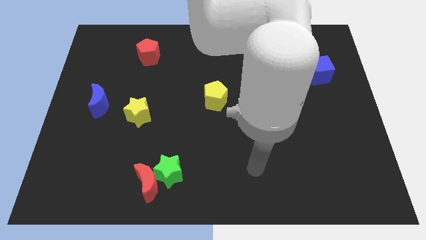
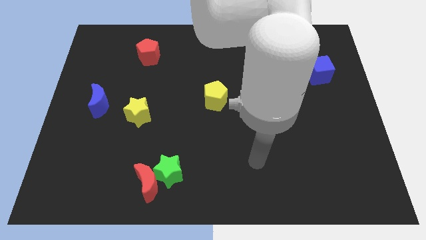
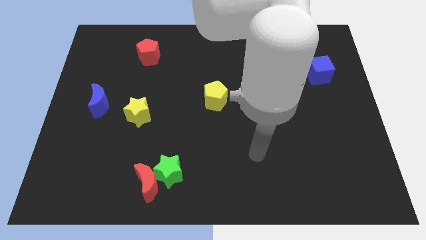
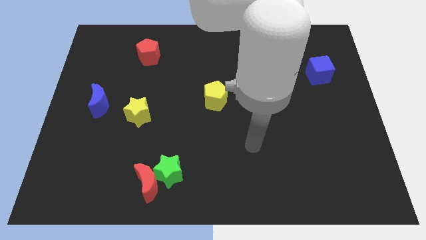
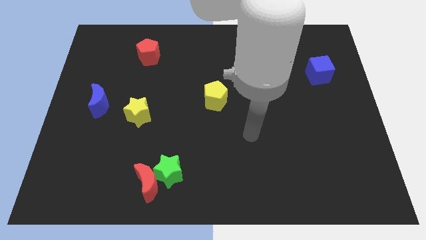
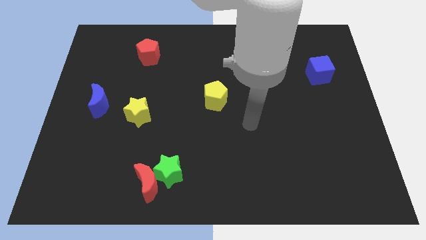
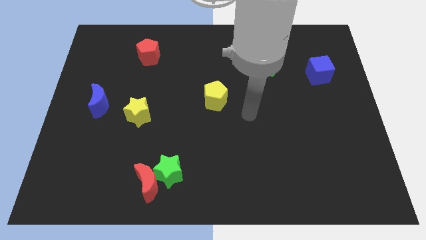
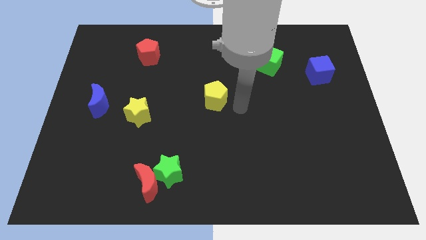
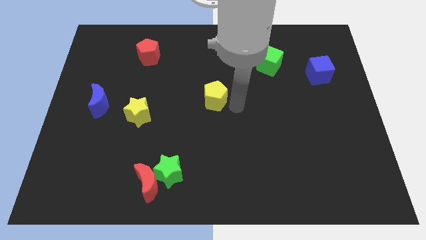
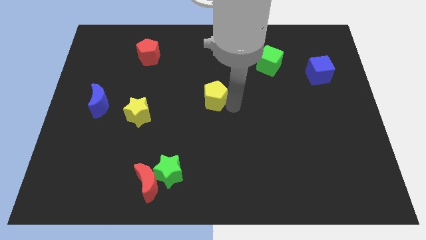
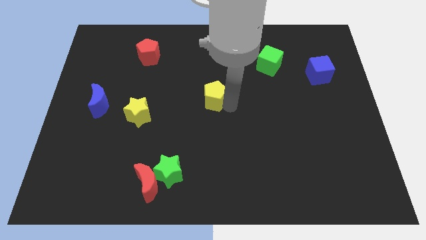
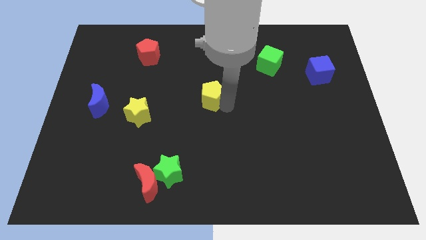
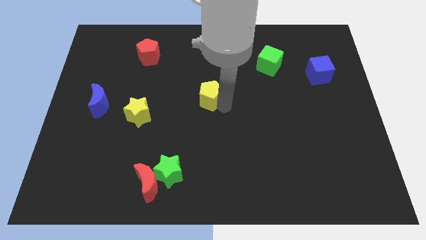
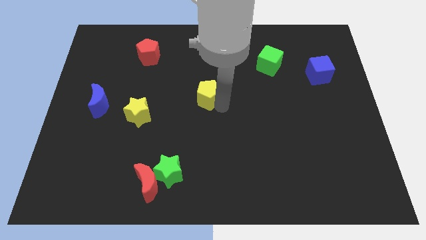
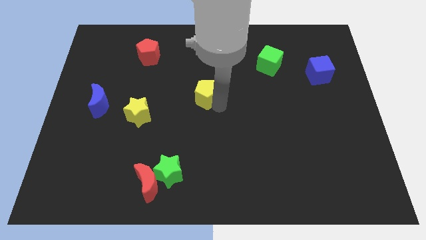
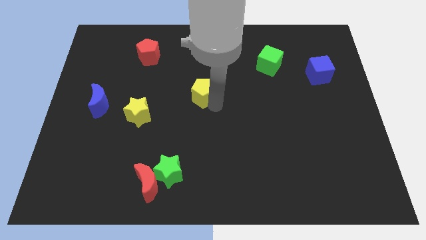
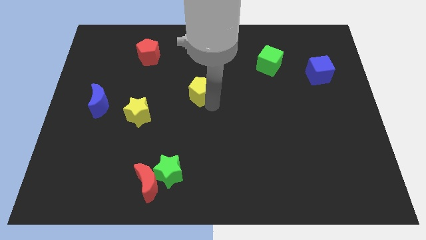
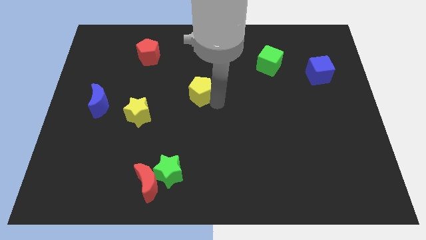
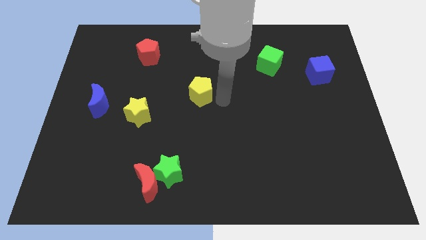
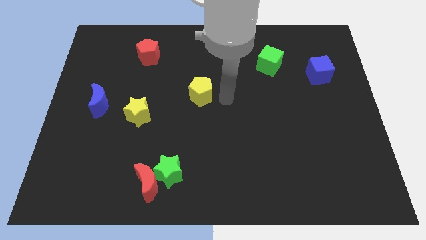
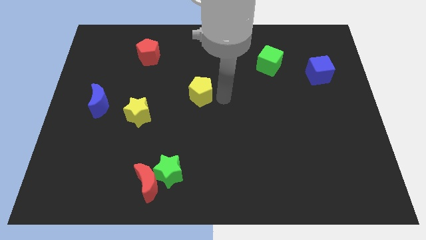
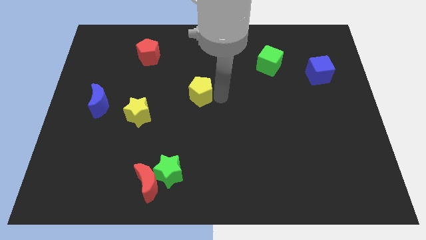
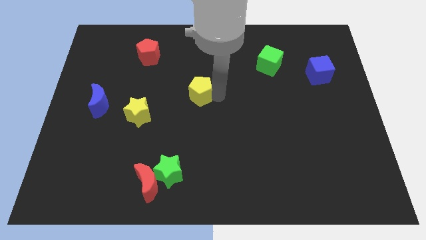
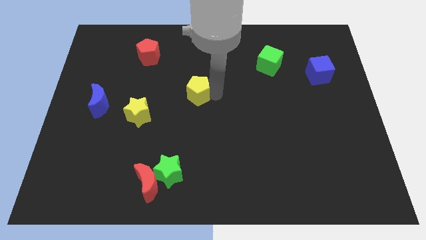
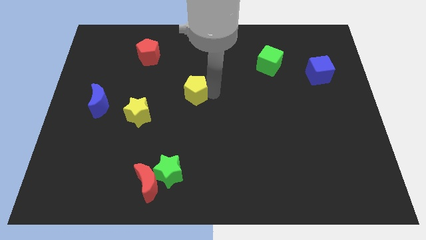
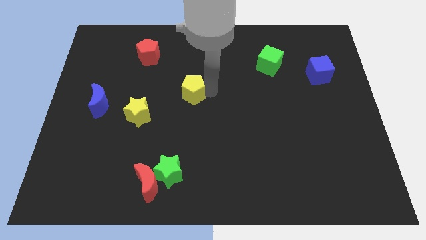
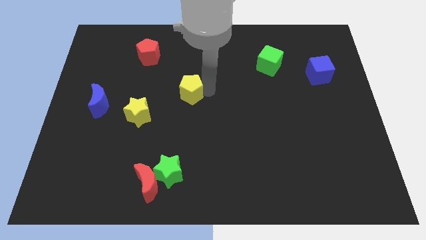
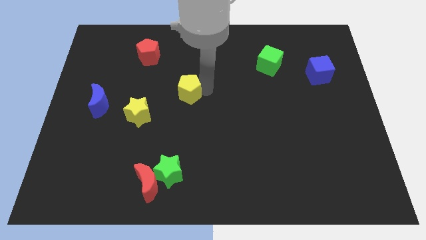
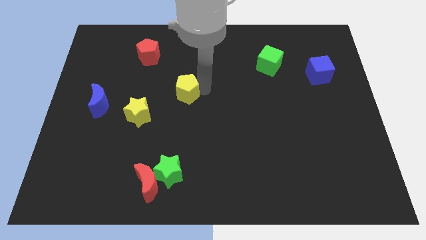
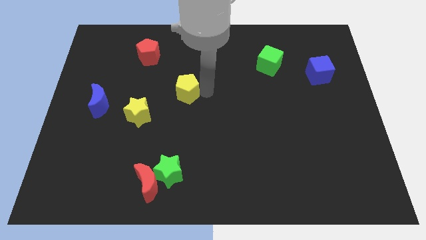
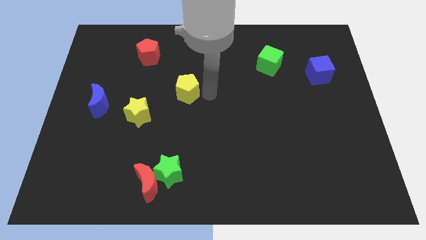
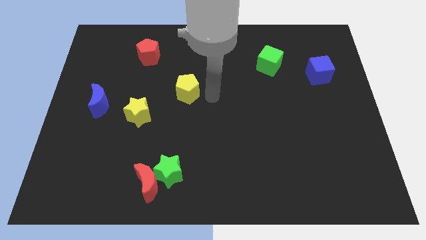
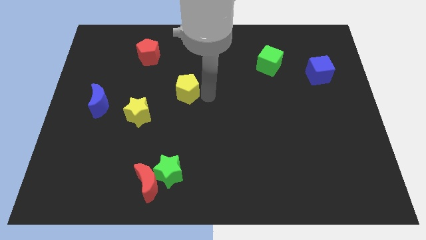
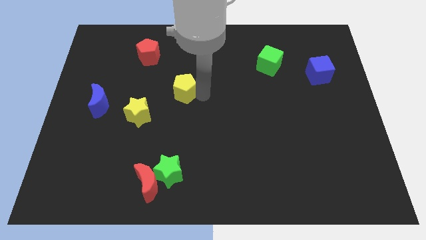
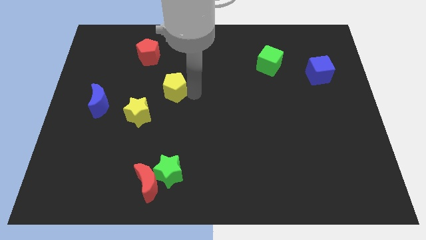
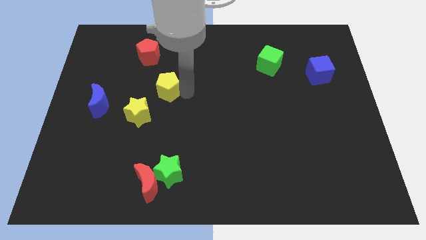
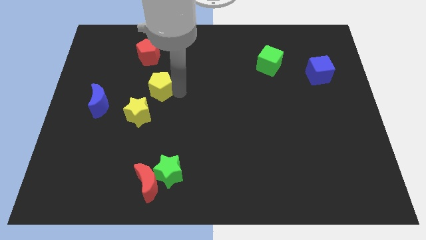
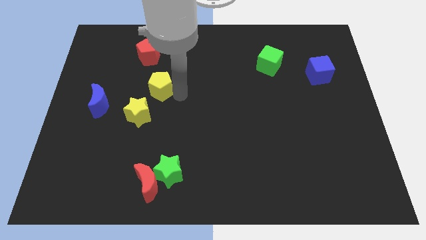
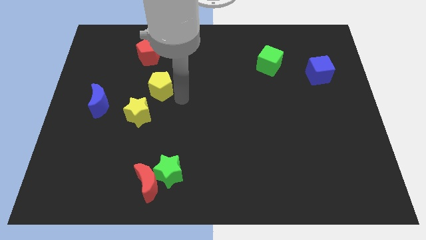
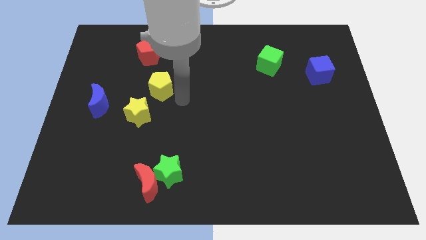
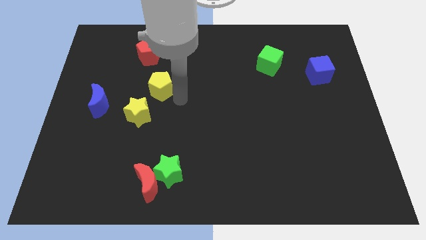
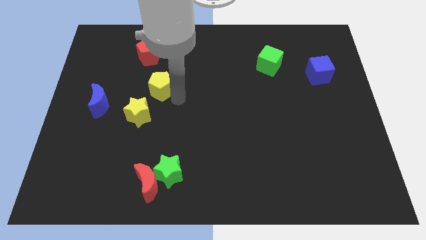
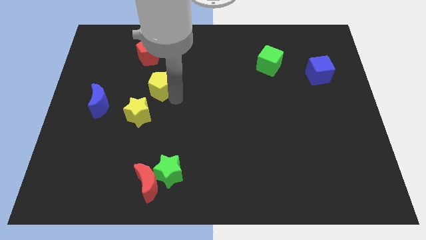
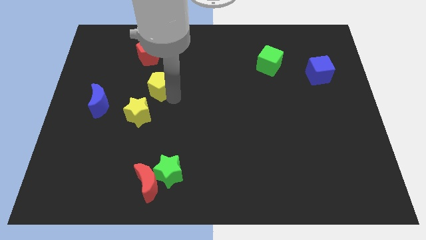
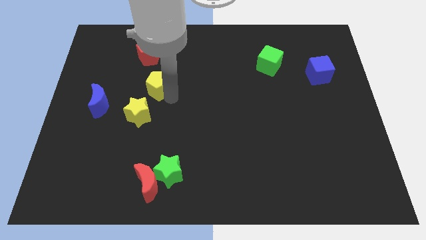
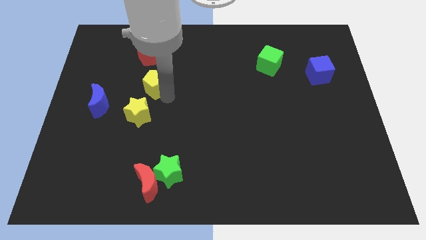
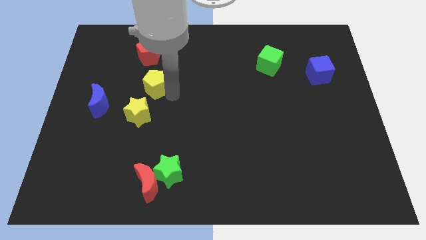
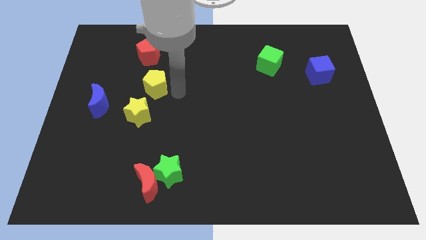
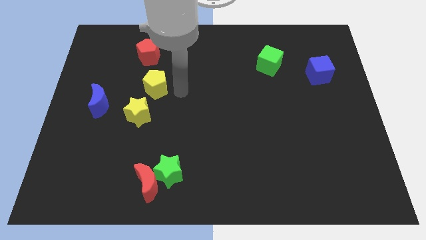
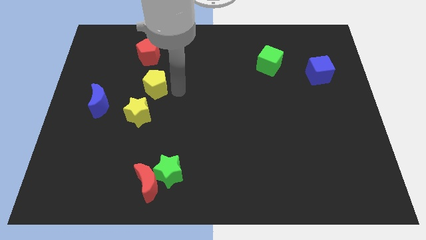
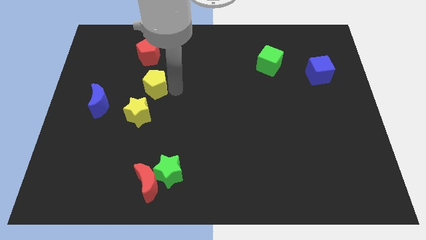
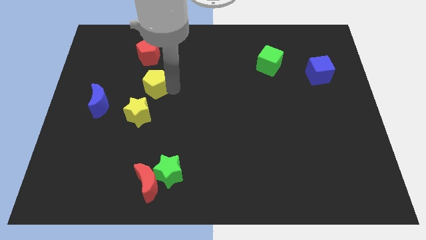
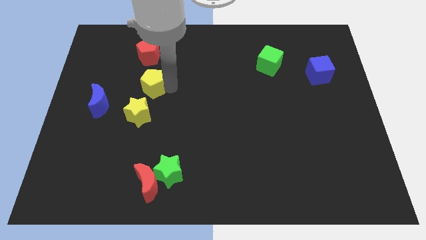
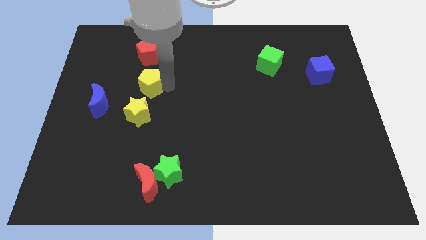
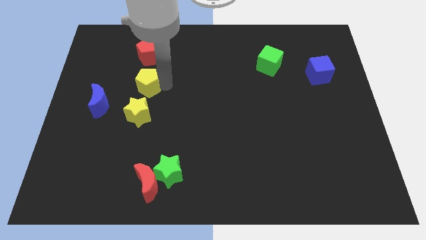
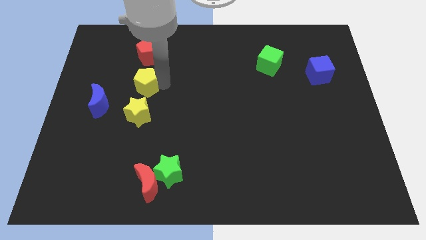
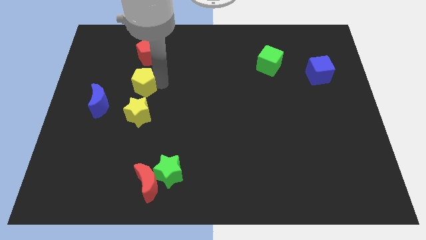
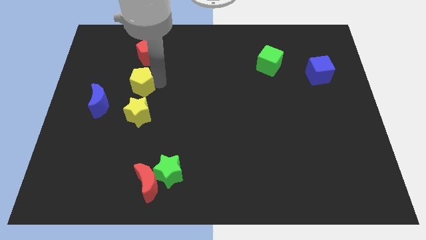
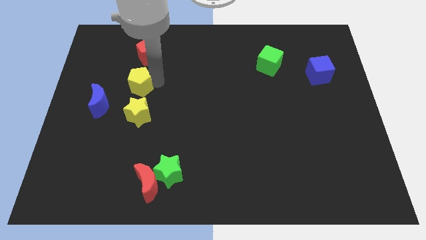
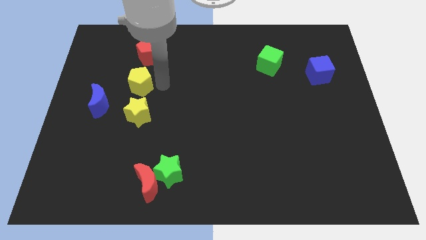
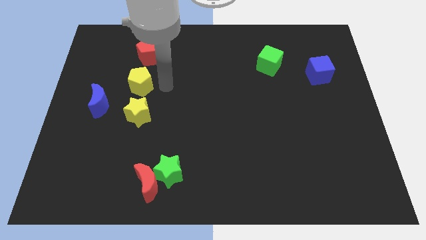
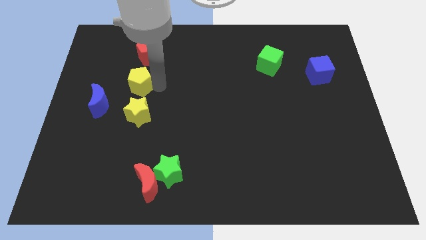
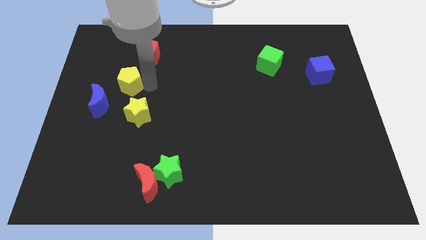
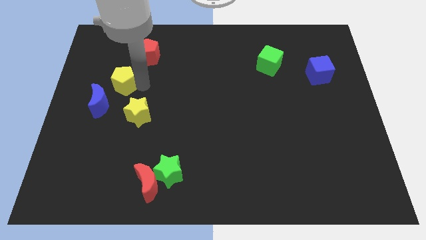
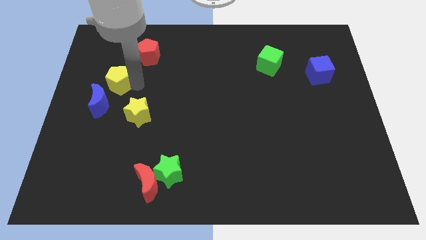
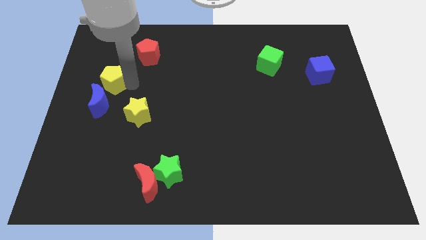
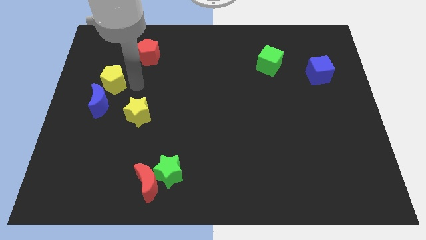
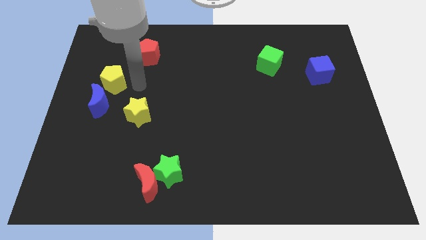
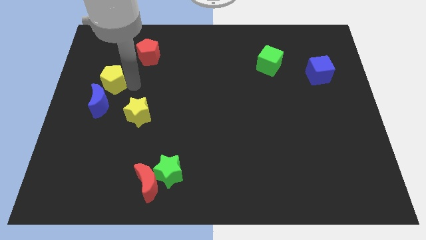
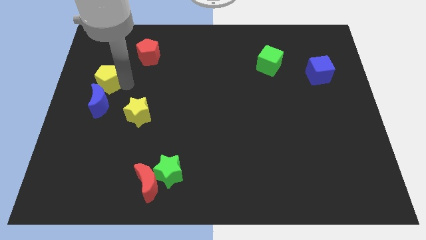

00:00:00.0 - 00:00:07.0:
slide the yellow pentagon to the center left
